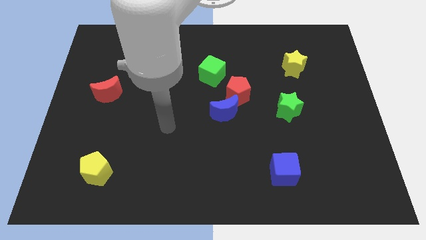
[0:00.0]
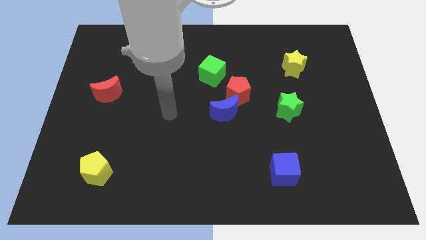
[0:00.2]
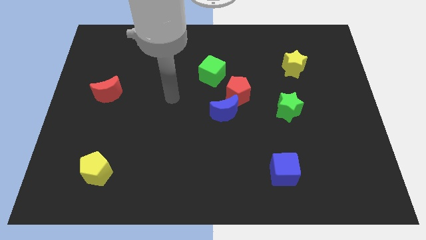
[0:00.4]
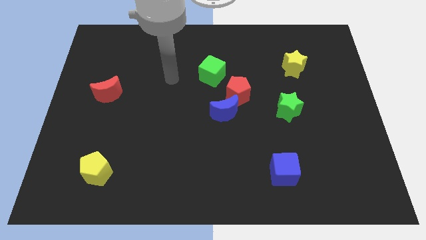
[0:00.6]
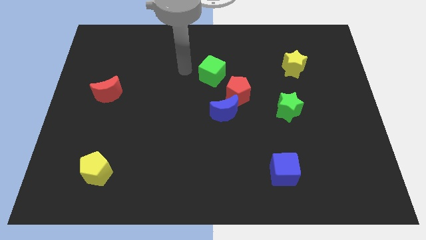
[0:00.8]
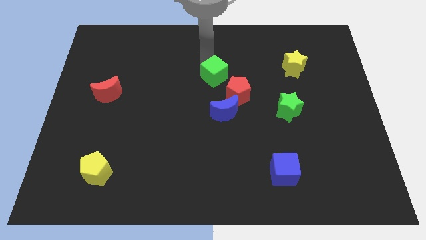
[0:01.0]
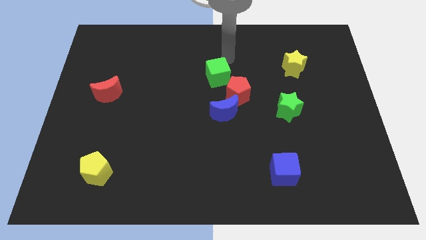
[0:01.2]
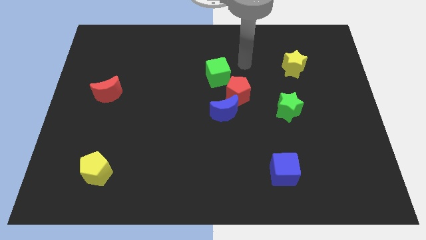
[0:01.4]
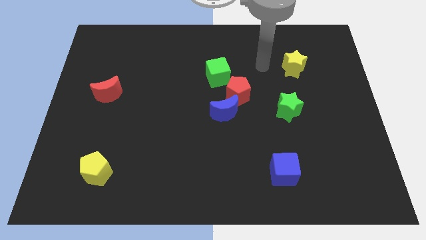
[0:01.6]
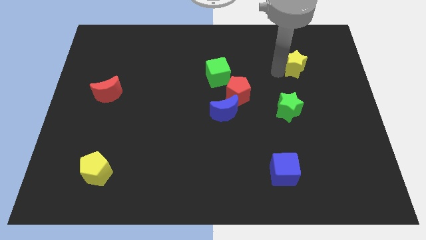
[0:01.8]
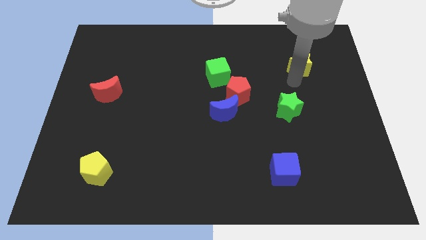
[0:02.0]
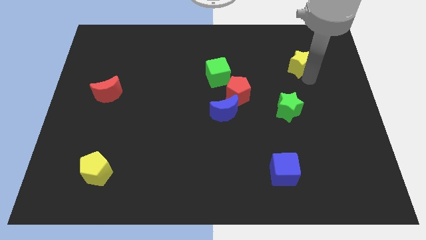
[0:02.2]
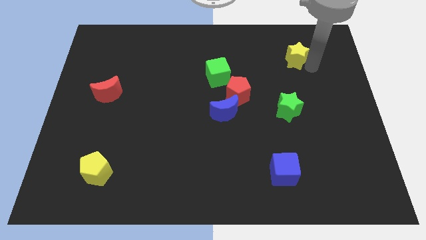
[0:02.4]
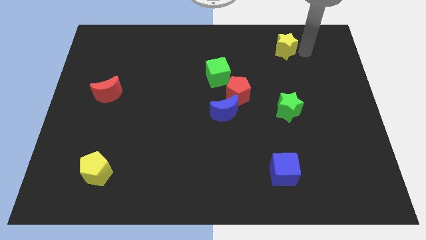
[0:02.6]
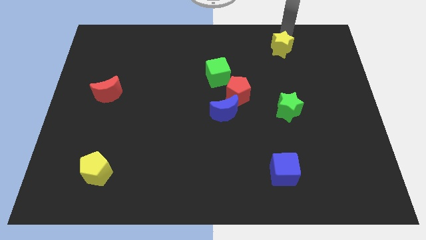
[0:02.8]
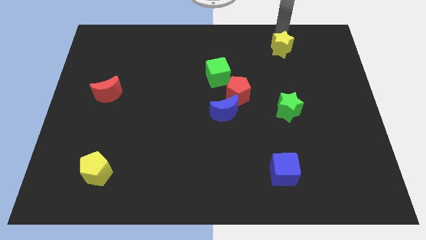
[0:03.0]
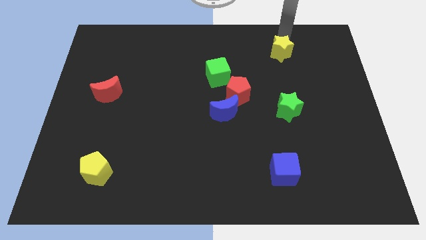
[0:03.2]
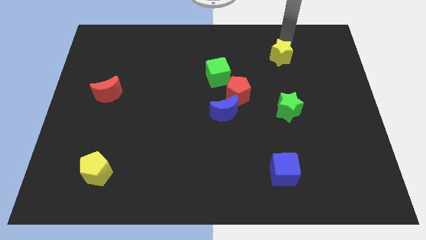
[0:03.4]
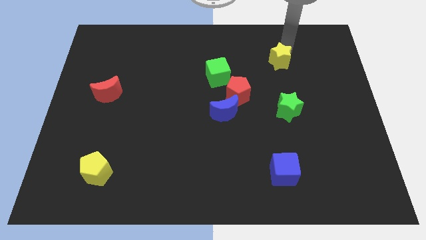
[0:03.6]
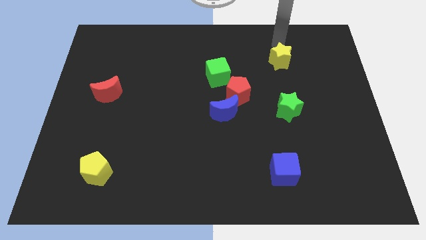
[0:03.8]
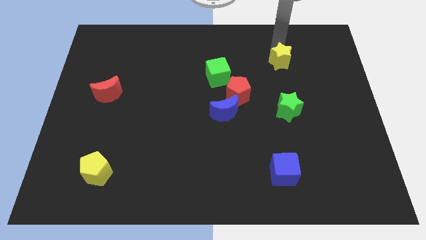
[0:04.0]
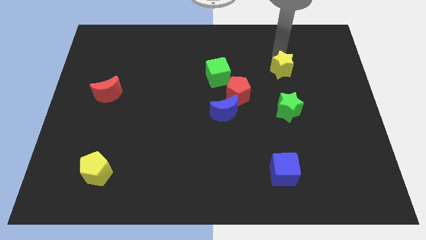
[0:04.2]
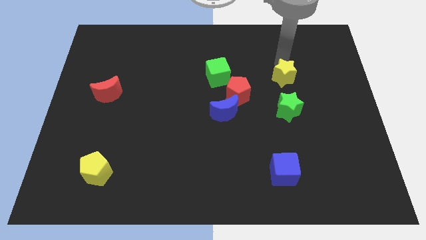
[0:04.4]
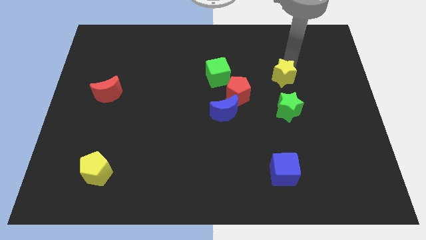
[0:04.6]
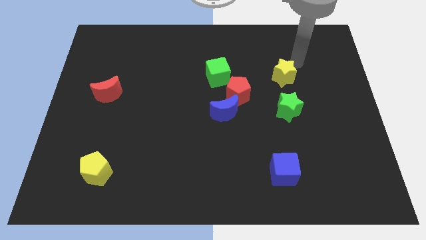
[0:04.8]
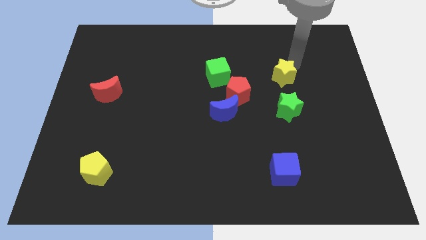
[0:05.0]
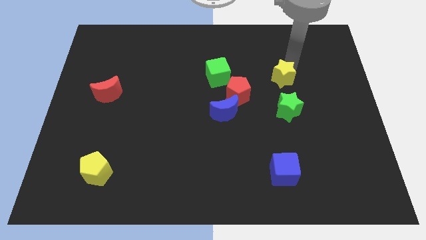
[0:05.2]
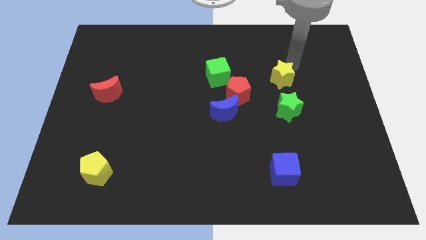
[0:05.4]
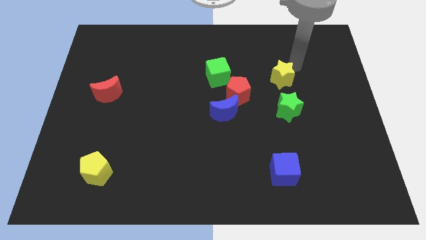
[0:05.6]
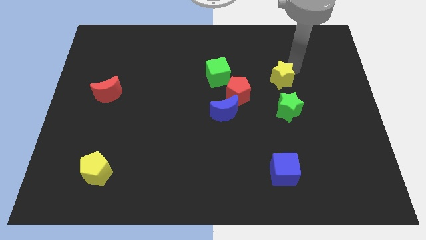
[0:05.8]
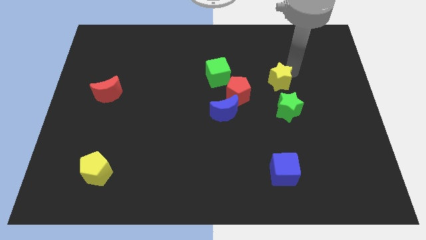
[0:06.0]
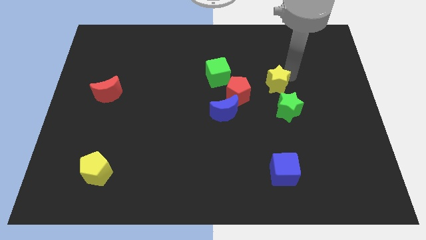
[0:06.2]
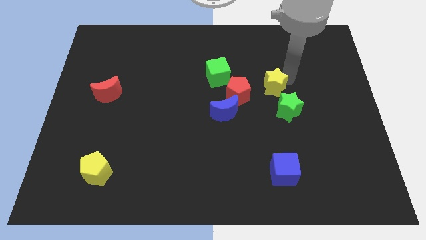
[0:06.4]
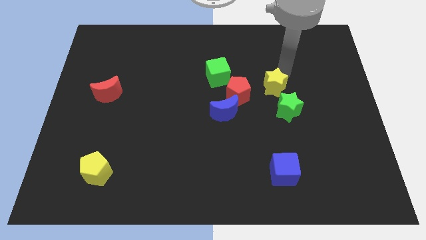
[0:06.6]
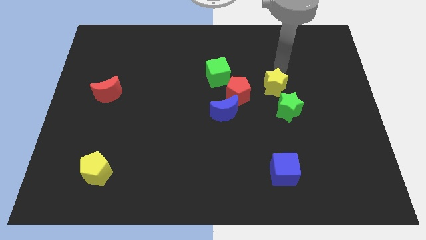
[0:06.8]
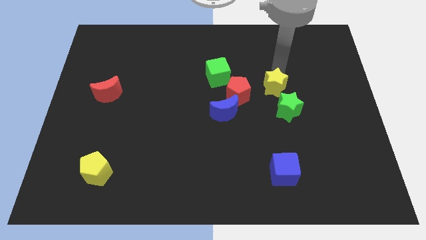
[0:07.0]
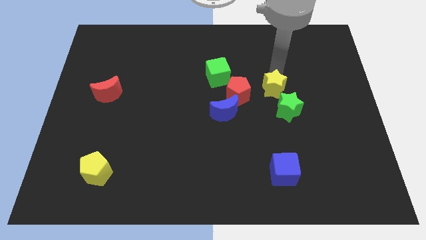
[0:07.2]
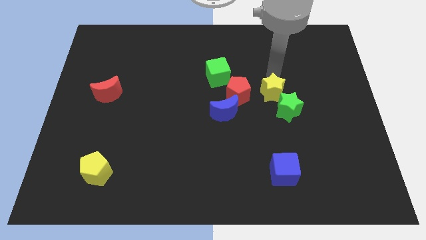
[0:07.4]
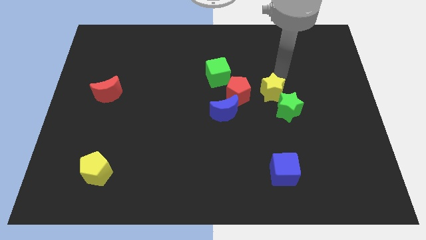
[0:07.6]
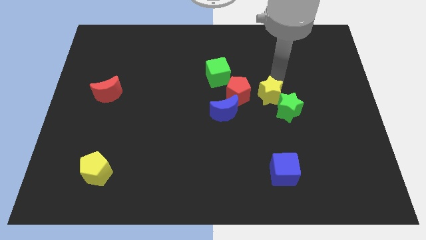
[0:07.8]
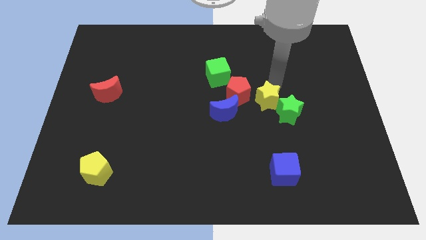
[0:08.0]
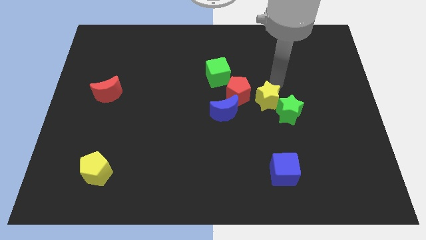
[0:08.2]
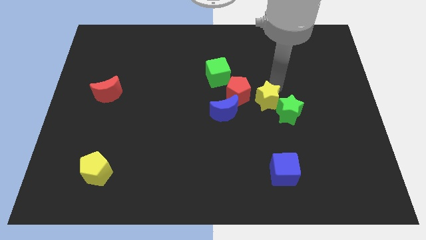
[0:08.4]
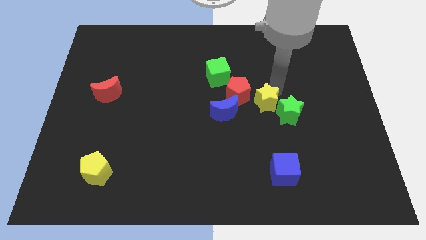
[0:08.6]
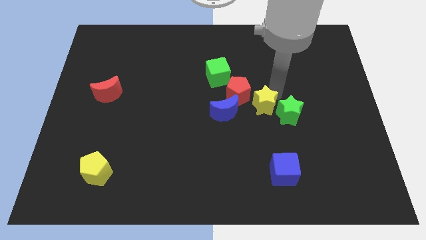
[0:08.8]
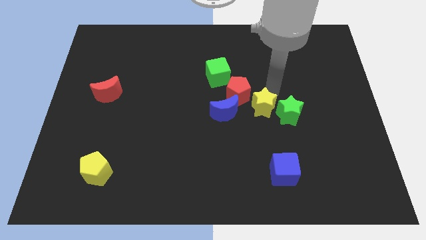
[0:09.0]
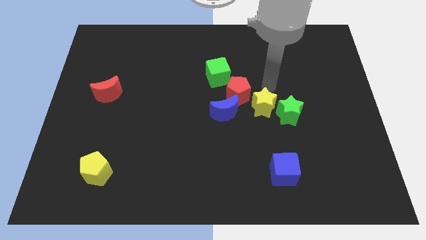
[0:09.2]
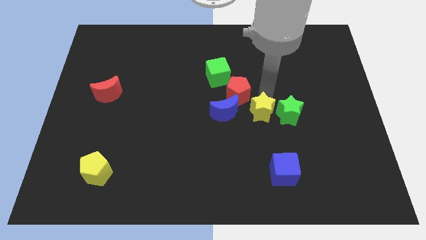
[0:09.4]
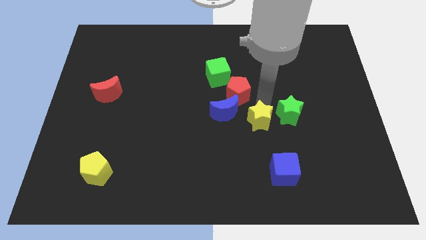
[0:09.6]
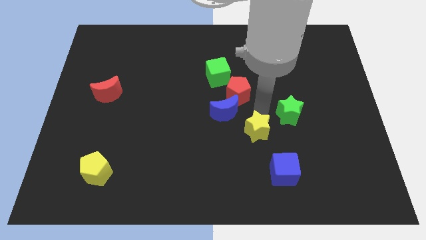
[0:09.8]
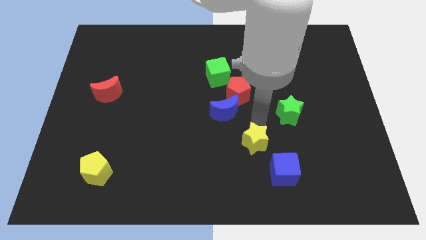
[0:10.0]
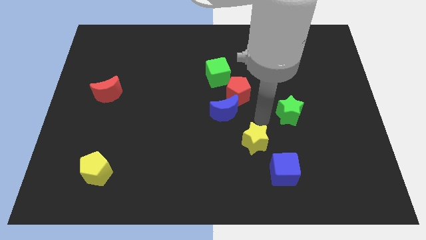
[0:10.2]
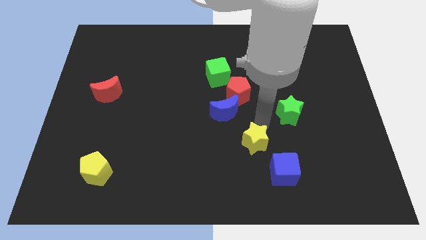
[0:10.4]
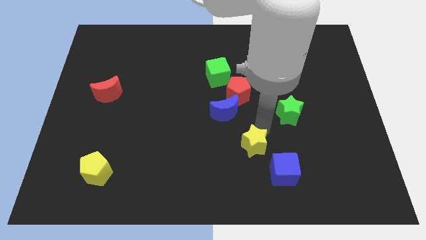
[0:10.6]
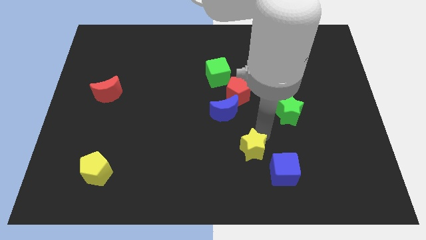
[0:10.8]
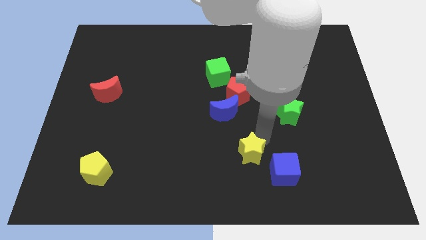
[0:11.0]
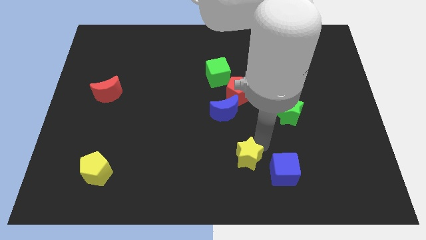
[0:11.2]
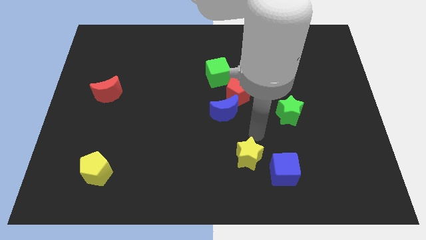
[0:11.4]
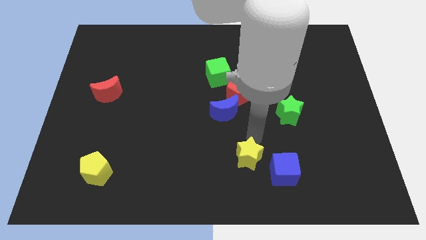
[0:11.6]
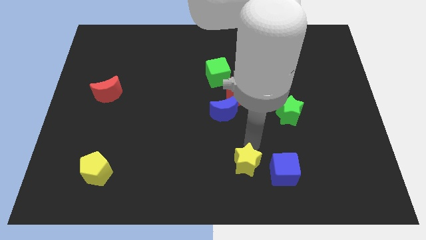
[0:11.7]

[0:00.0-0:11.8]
move the yellow star to the bottom side

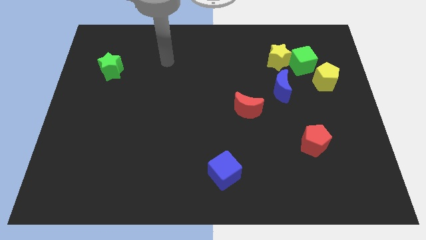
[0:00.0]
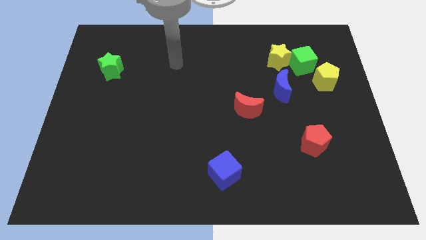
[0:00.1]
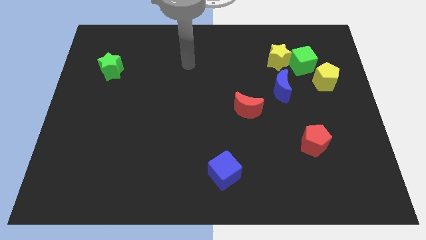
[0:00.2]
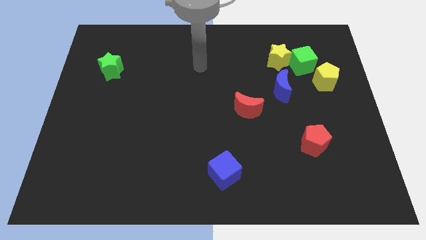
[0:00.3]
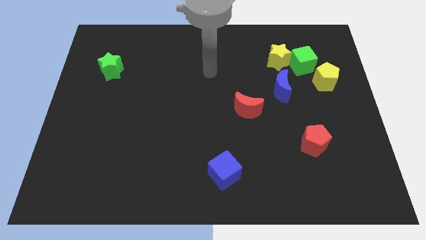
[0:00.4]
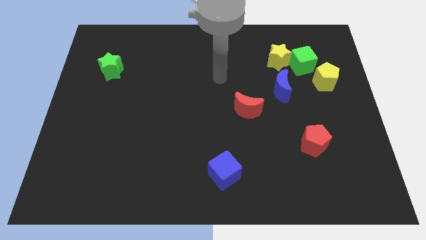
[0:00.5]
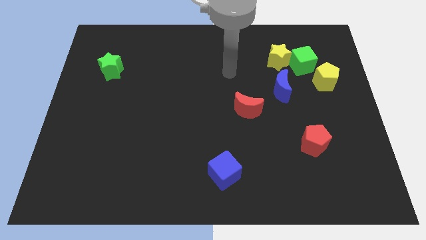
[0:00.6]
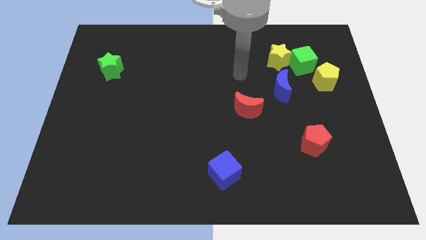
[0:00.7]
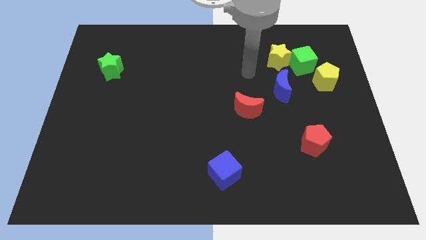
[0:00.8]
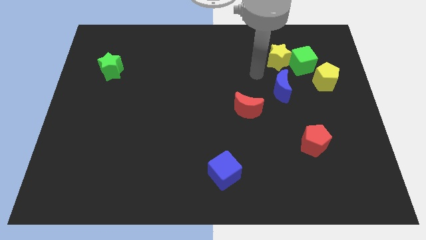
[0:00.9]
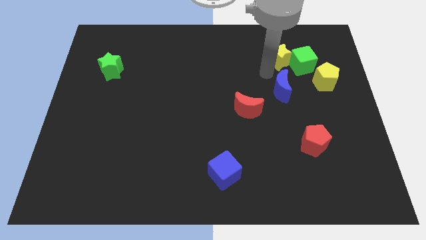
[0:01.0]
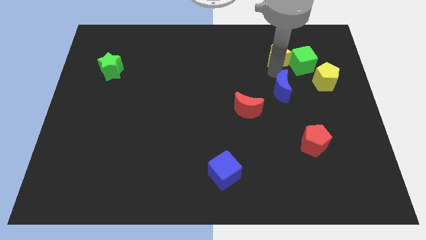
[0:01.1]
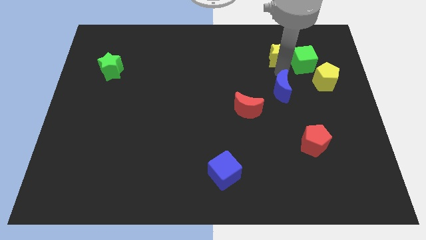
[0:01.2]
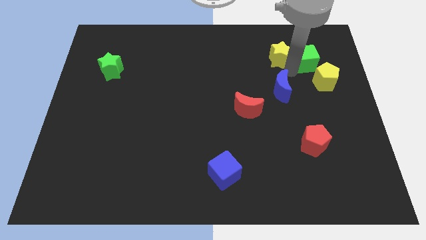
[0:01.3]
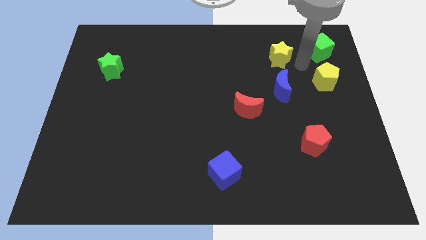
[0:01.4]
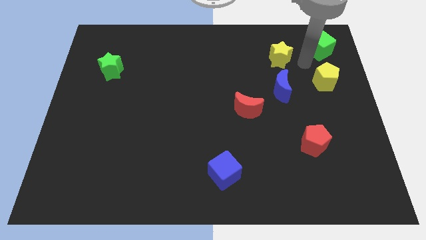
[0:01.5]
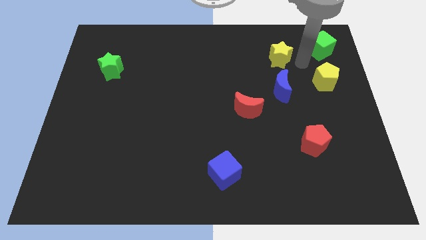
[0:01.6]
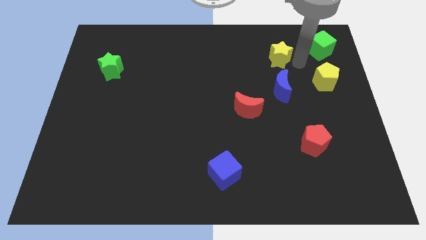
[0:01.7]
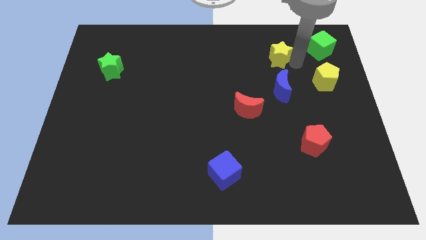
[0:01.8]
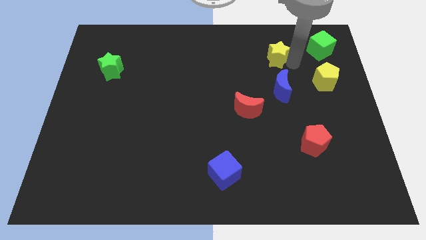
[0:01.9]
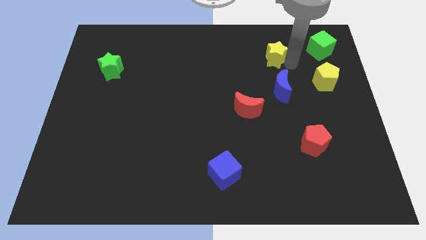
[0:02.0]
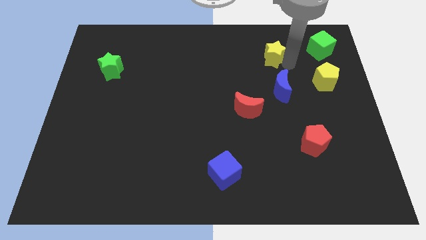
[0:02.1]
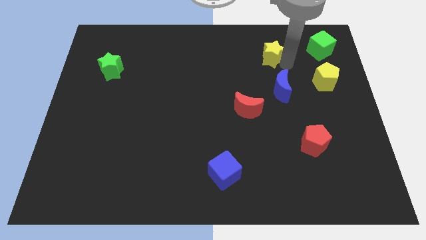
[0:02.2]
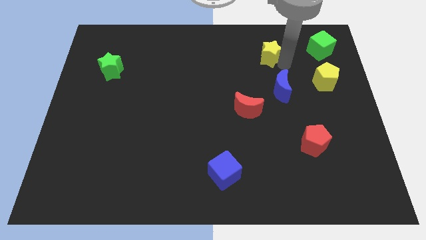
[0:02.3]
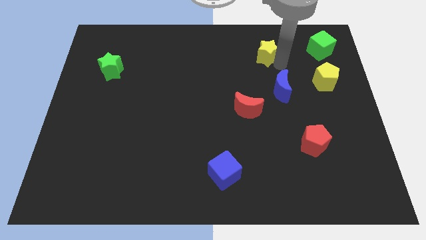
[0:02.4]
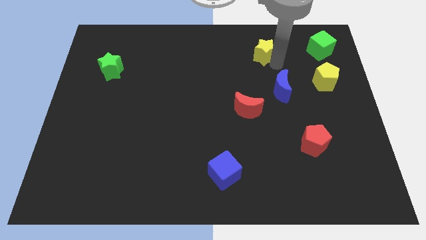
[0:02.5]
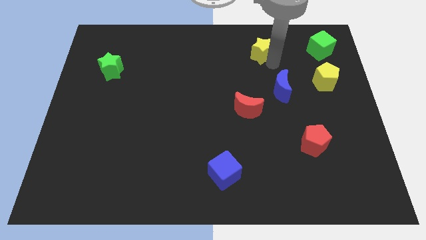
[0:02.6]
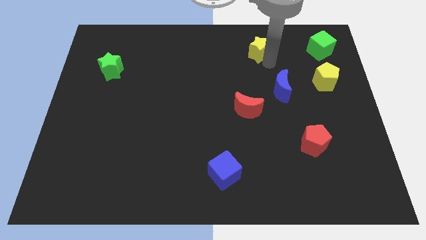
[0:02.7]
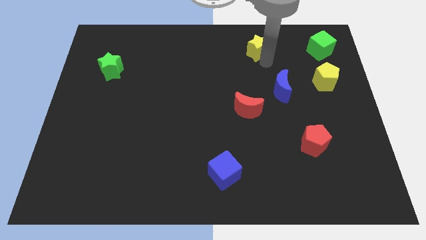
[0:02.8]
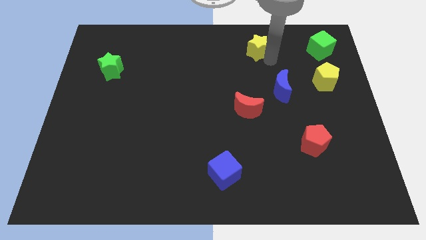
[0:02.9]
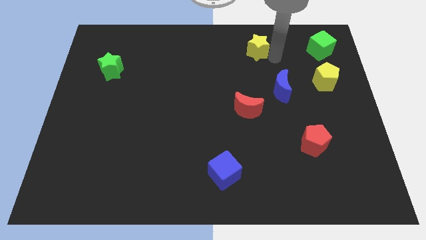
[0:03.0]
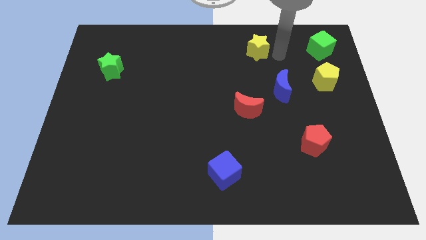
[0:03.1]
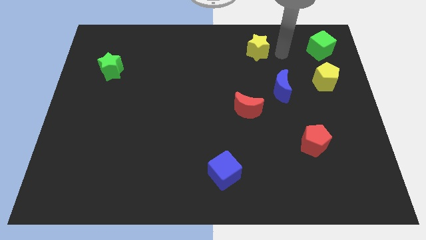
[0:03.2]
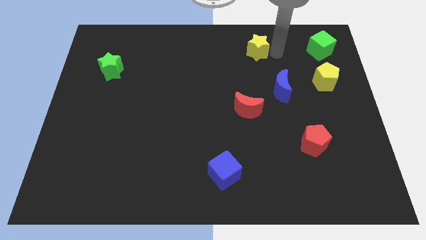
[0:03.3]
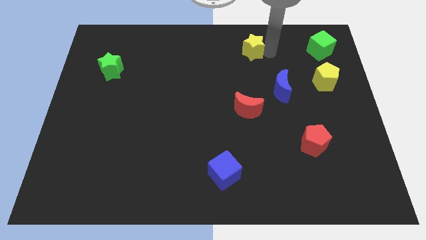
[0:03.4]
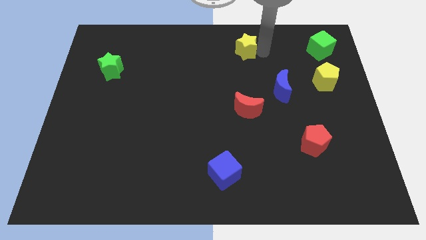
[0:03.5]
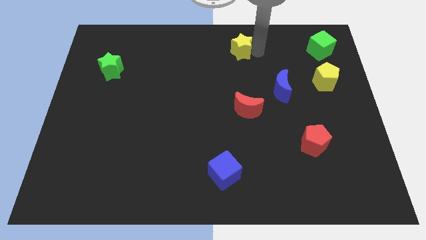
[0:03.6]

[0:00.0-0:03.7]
move the yellow star to the towards your base
